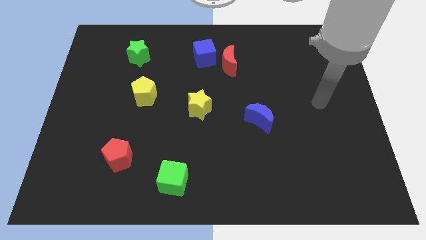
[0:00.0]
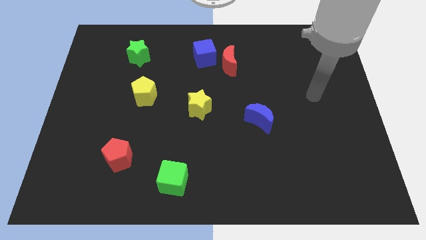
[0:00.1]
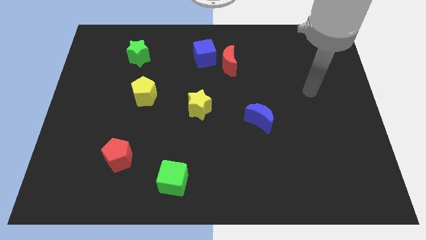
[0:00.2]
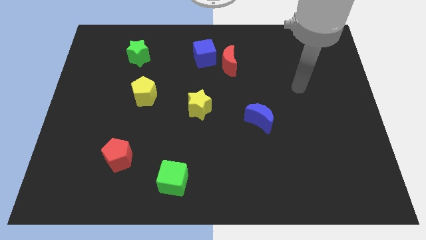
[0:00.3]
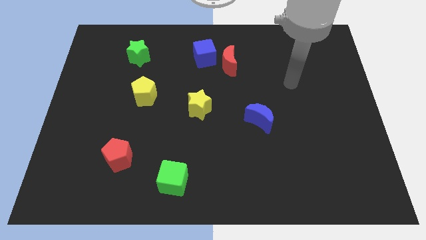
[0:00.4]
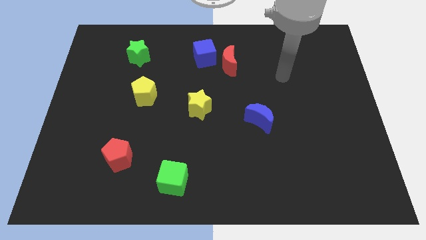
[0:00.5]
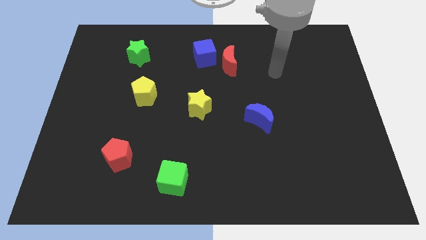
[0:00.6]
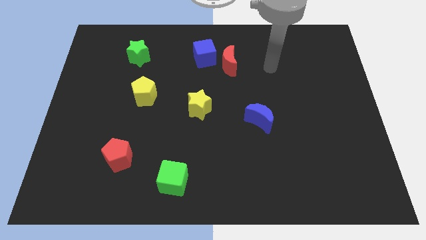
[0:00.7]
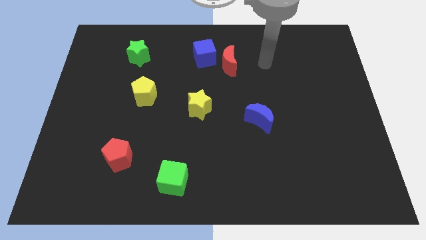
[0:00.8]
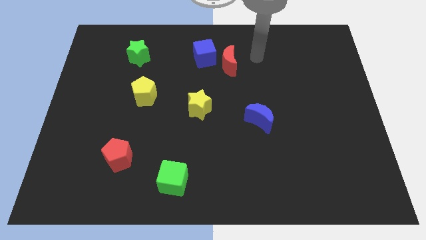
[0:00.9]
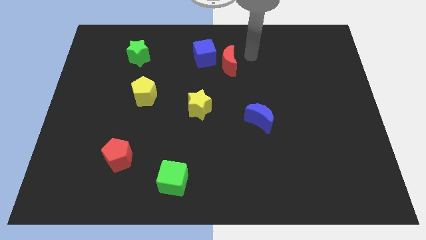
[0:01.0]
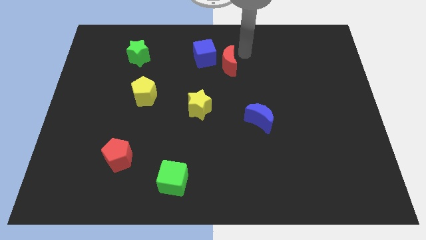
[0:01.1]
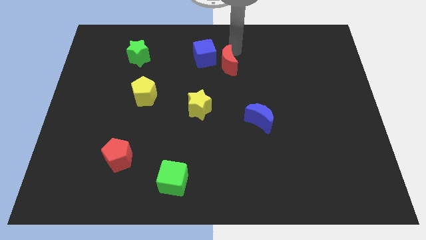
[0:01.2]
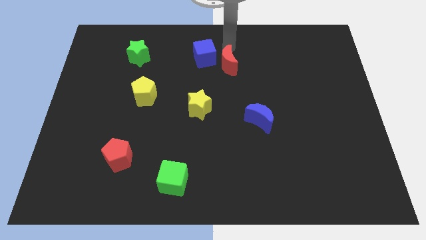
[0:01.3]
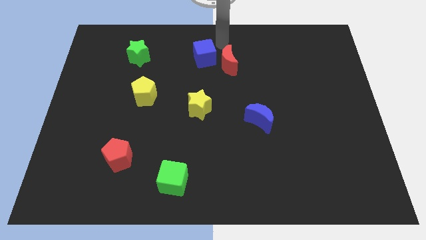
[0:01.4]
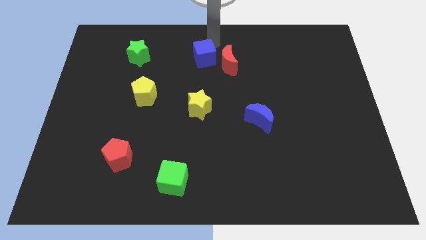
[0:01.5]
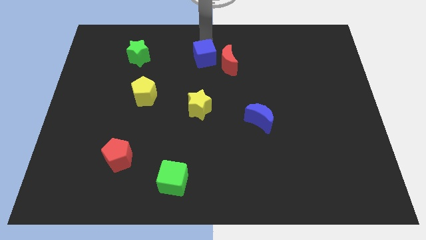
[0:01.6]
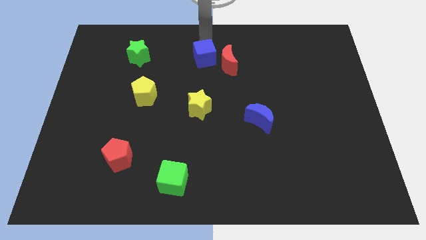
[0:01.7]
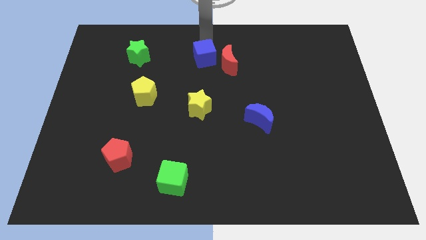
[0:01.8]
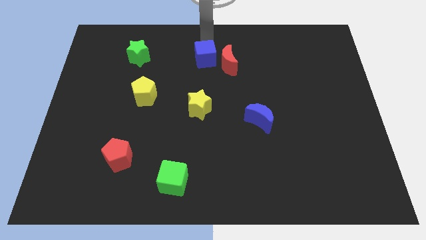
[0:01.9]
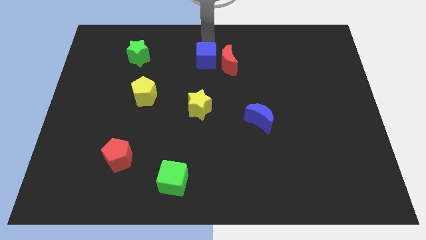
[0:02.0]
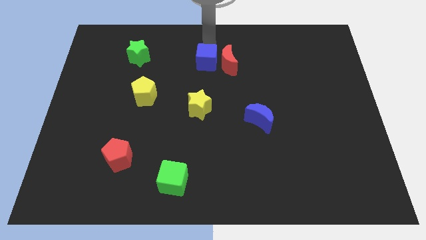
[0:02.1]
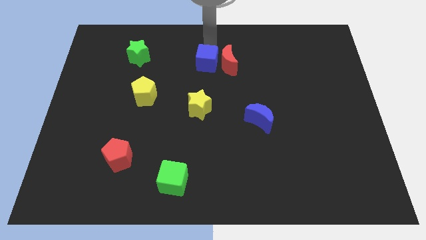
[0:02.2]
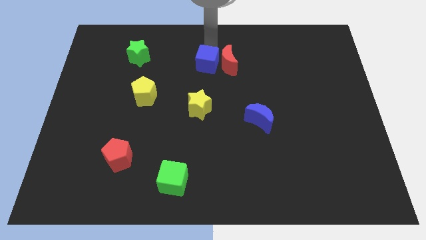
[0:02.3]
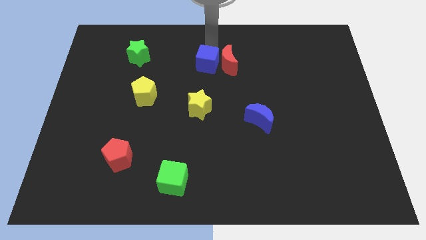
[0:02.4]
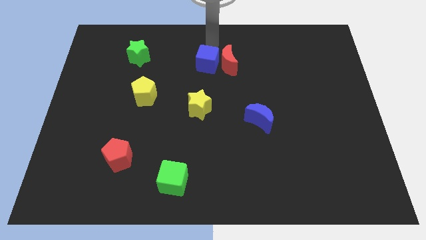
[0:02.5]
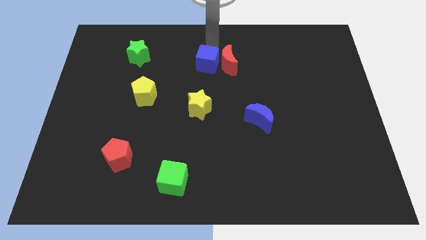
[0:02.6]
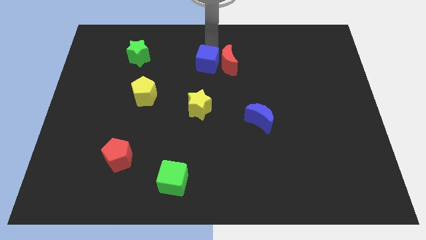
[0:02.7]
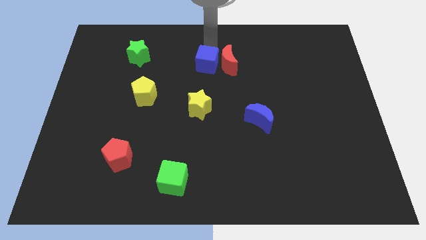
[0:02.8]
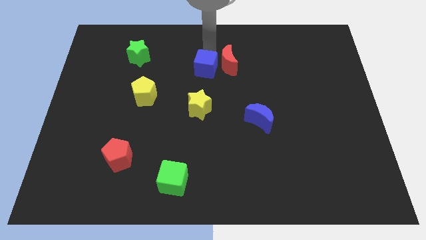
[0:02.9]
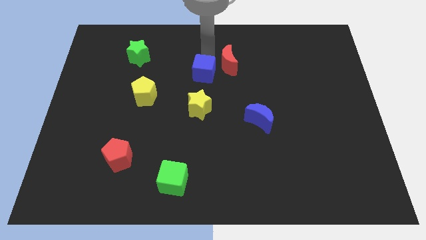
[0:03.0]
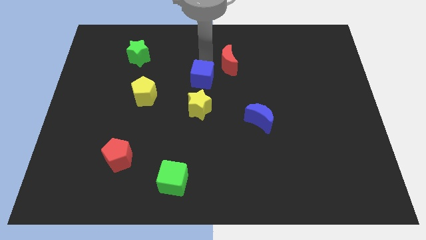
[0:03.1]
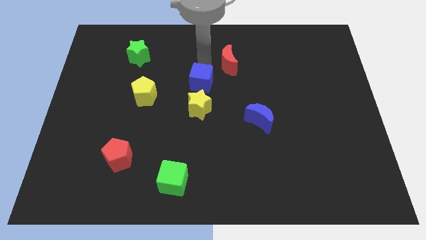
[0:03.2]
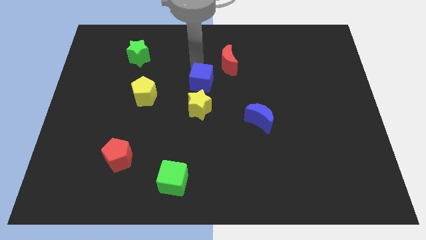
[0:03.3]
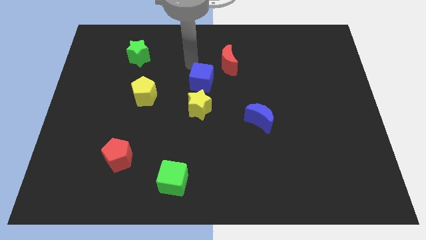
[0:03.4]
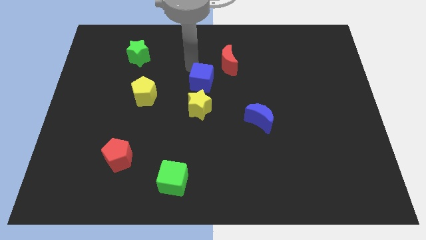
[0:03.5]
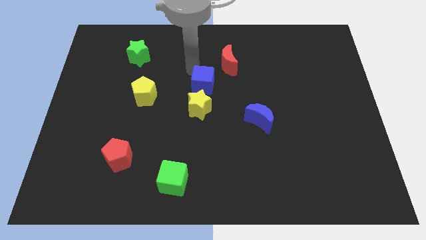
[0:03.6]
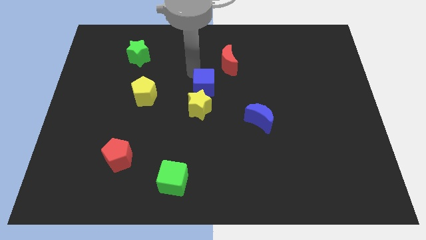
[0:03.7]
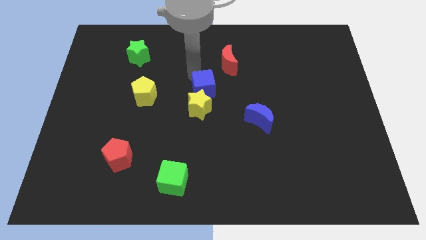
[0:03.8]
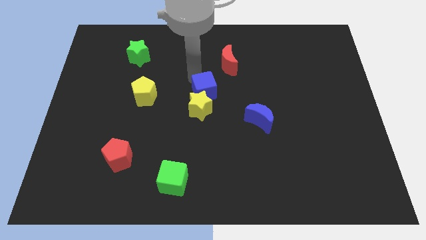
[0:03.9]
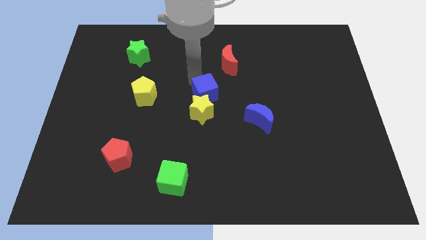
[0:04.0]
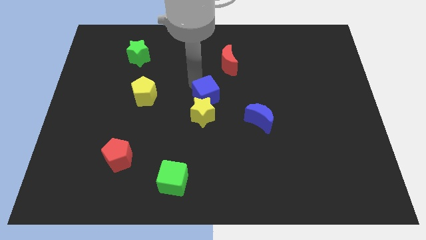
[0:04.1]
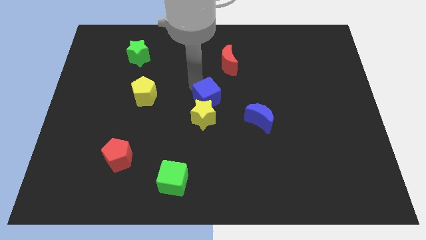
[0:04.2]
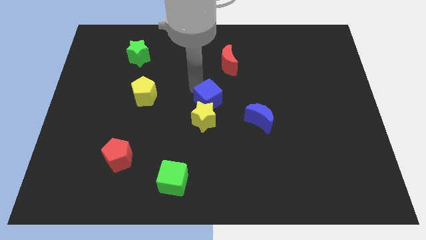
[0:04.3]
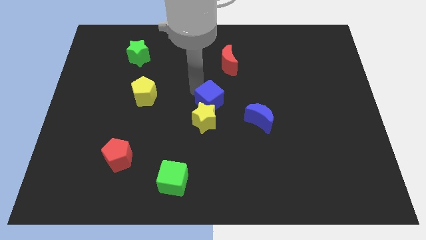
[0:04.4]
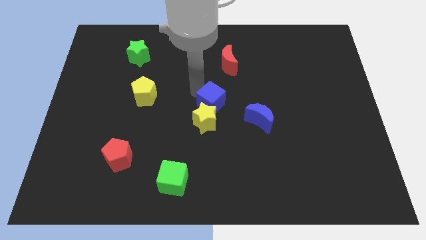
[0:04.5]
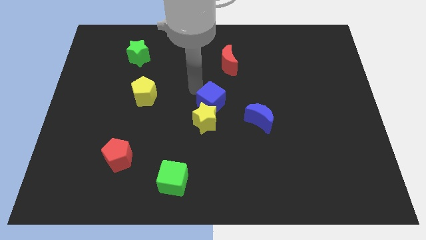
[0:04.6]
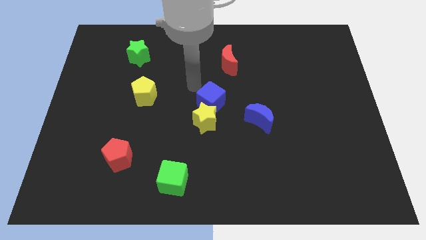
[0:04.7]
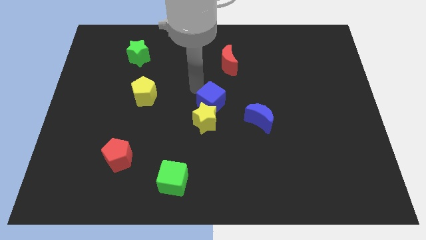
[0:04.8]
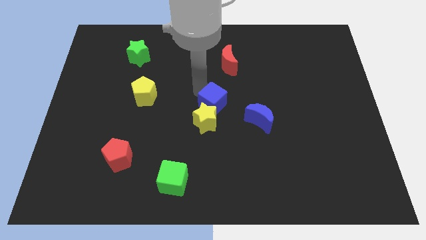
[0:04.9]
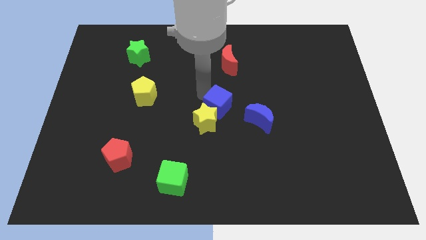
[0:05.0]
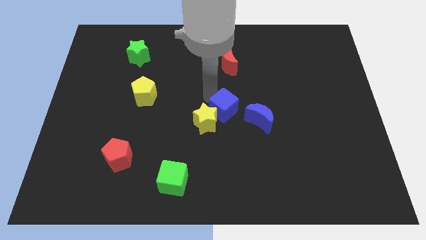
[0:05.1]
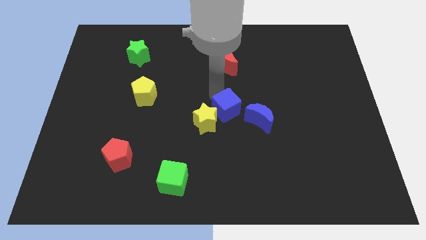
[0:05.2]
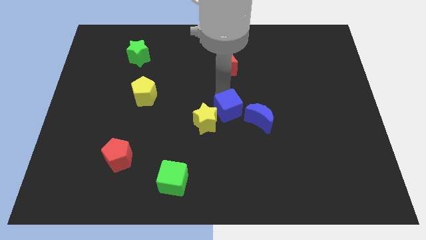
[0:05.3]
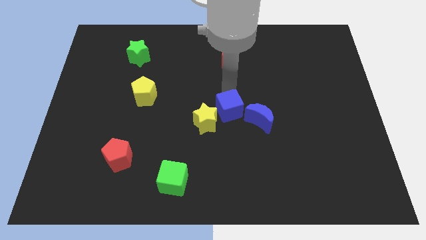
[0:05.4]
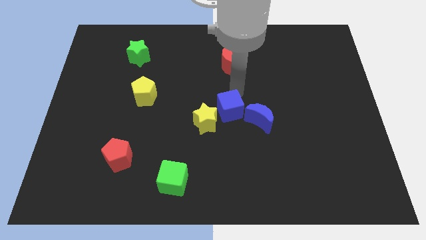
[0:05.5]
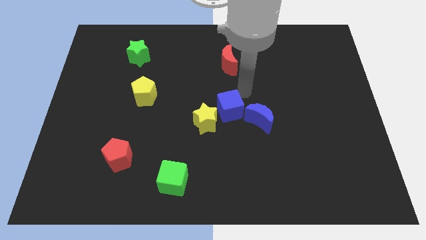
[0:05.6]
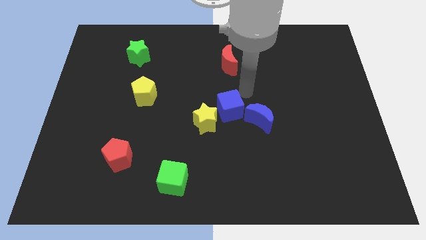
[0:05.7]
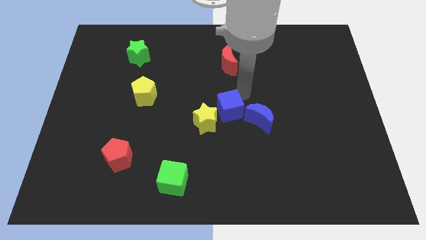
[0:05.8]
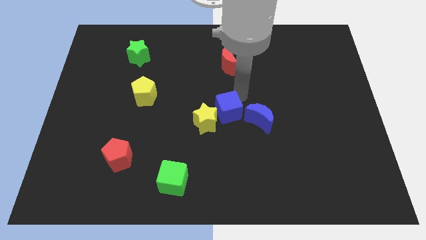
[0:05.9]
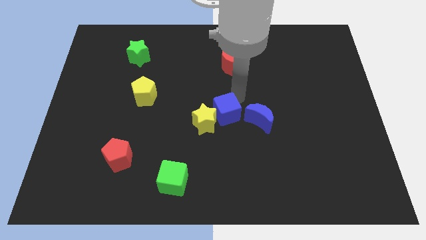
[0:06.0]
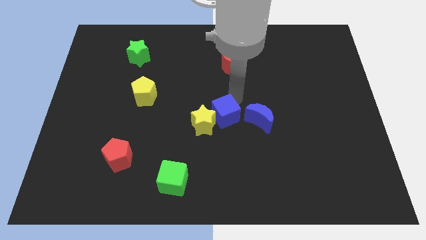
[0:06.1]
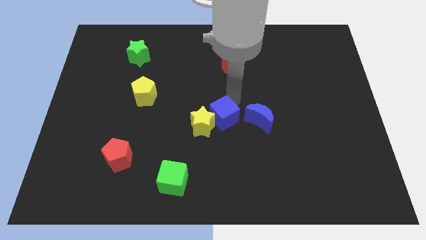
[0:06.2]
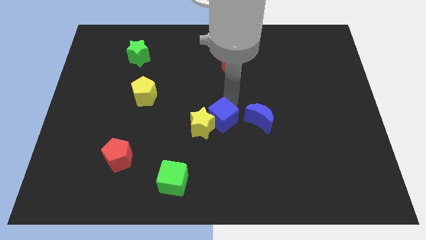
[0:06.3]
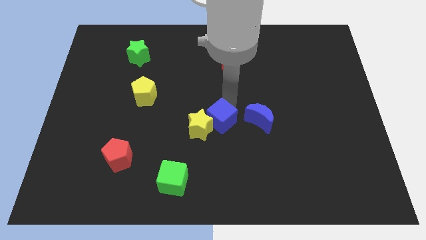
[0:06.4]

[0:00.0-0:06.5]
move the blue cube downwards

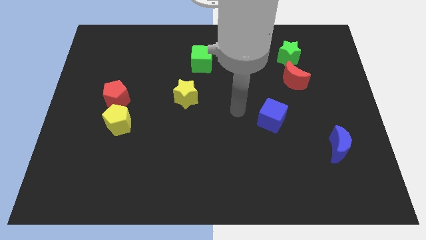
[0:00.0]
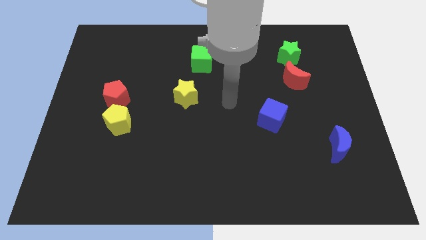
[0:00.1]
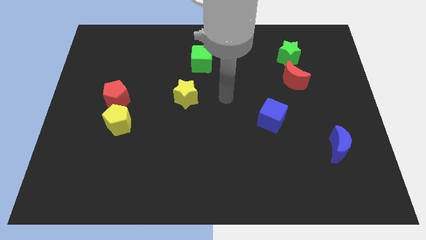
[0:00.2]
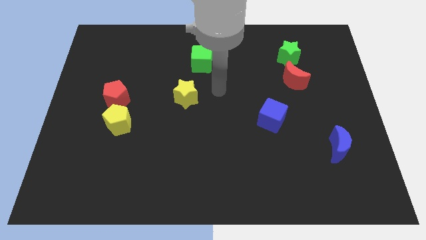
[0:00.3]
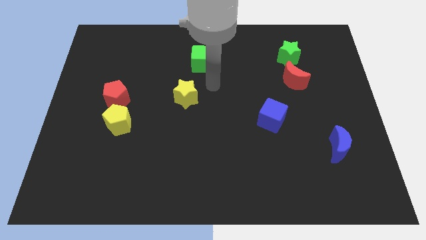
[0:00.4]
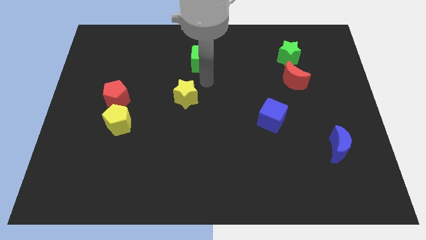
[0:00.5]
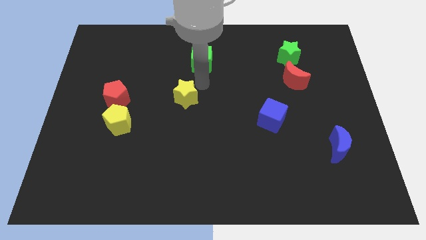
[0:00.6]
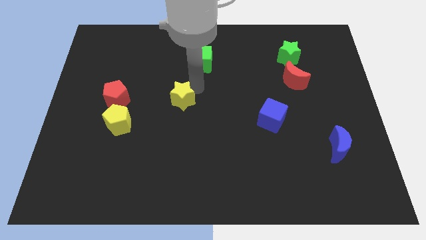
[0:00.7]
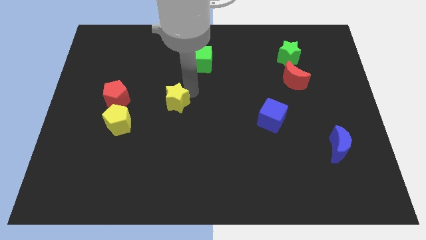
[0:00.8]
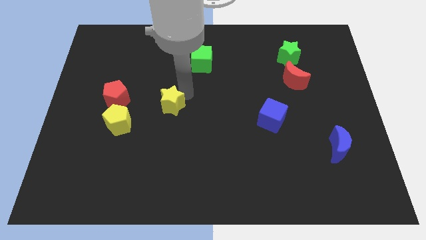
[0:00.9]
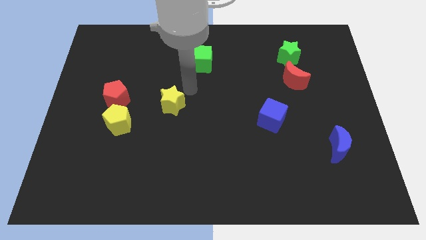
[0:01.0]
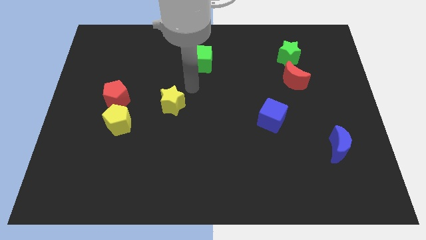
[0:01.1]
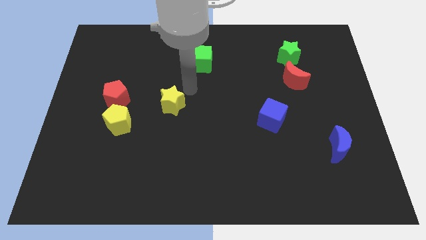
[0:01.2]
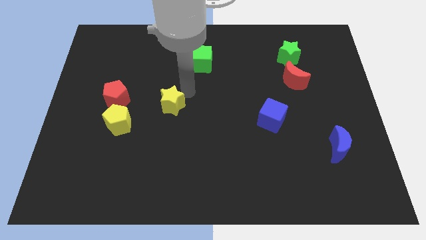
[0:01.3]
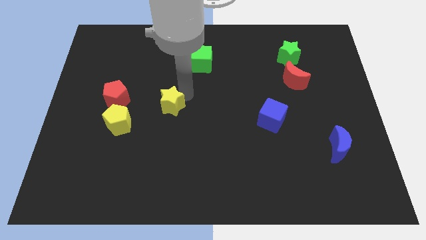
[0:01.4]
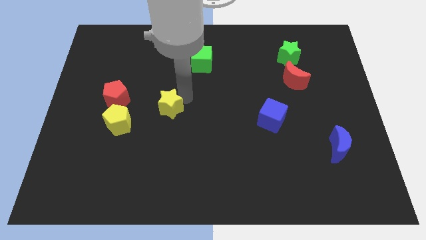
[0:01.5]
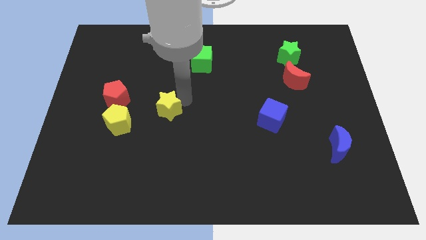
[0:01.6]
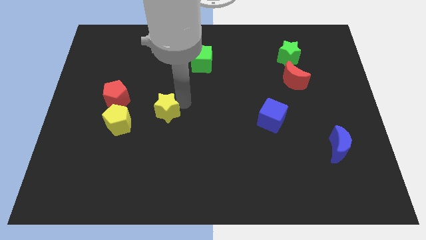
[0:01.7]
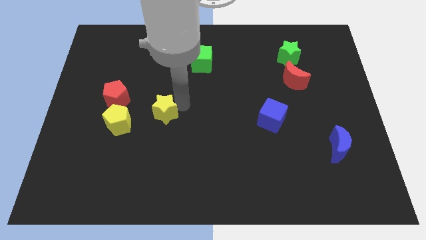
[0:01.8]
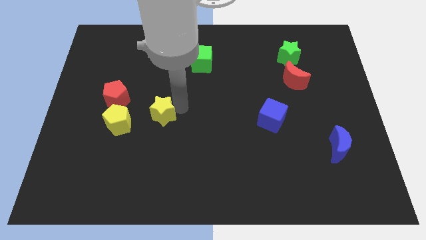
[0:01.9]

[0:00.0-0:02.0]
slide the yellow star down and then left slightly
